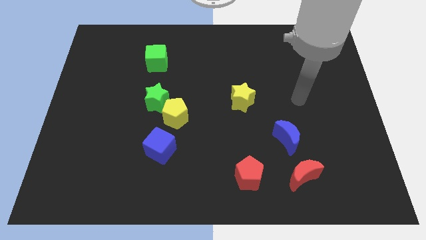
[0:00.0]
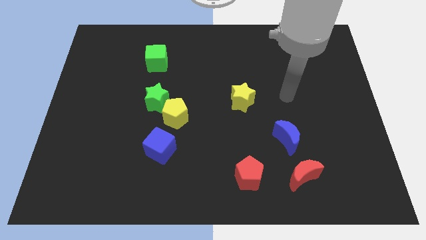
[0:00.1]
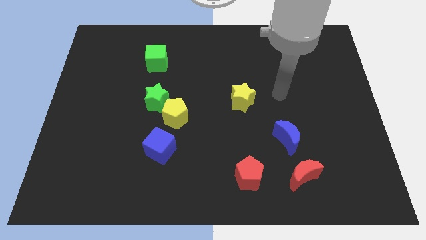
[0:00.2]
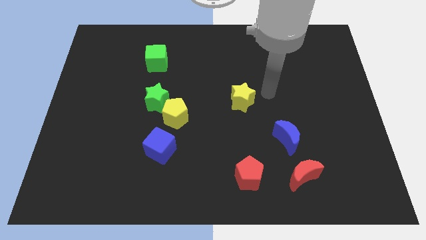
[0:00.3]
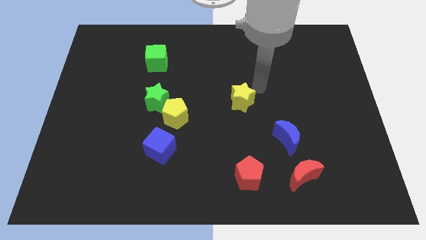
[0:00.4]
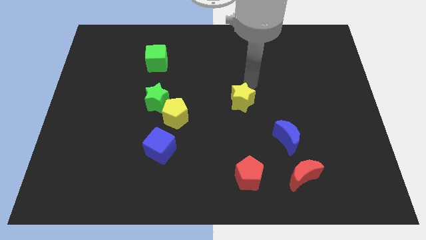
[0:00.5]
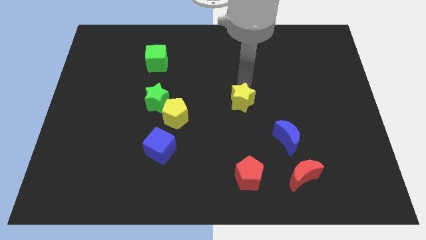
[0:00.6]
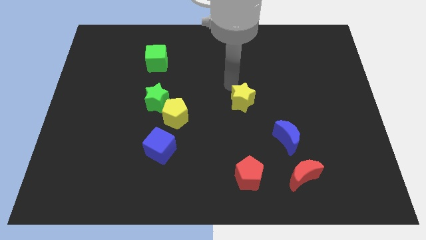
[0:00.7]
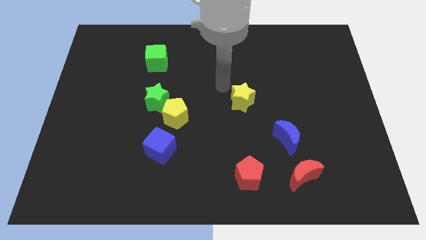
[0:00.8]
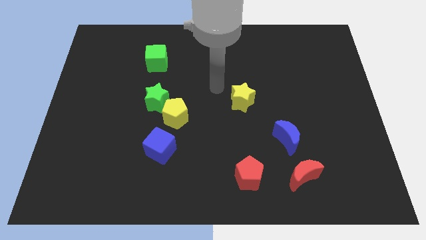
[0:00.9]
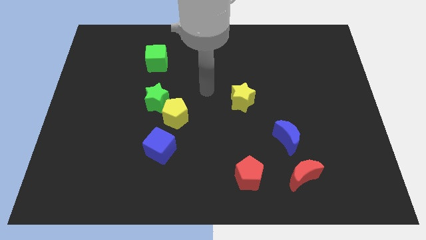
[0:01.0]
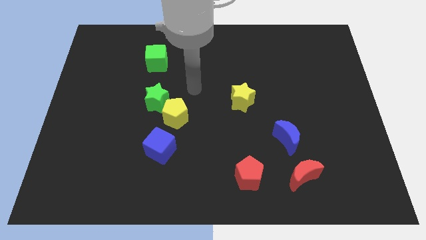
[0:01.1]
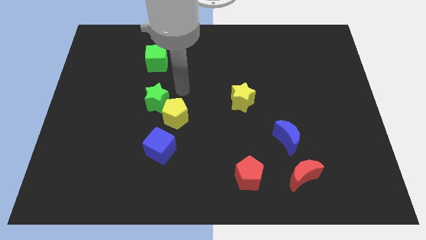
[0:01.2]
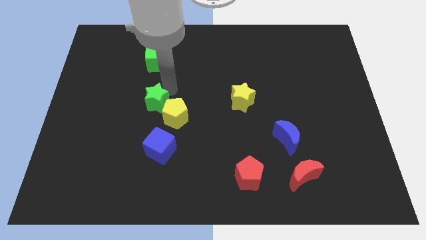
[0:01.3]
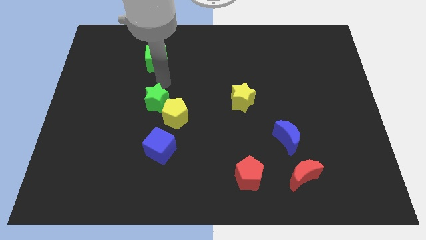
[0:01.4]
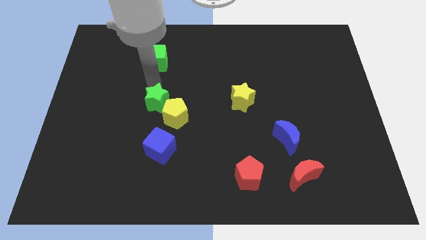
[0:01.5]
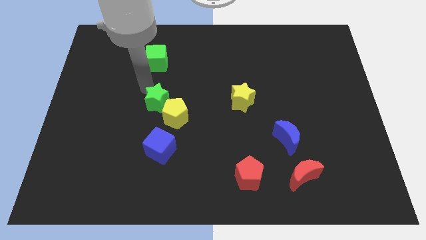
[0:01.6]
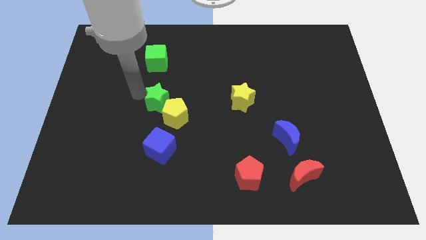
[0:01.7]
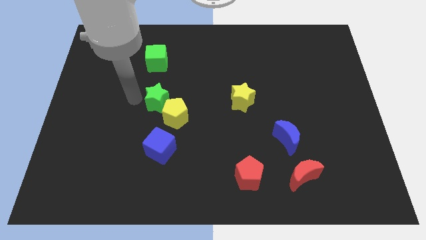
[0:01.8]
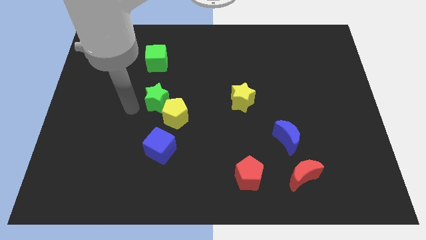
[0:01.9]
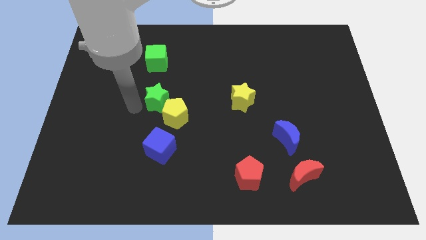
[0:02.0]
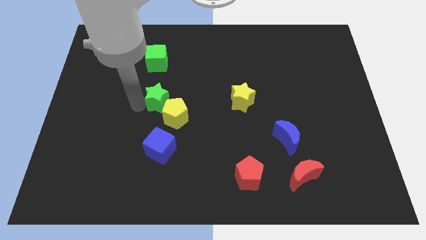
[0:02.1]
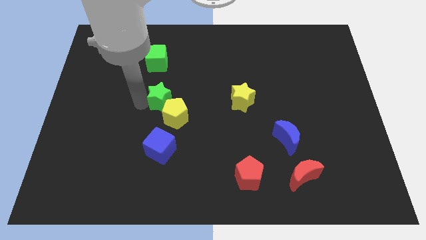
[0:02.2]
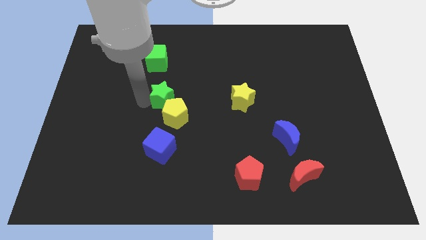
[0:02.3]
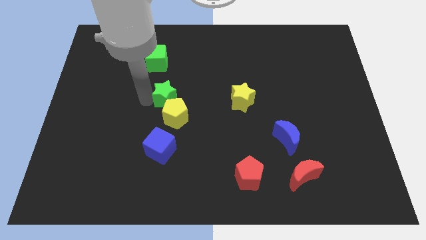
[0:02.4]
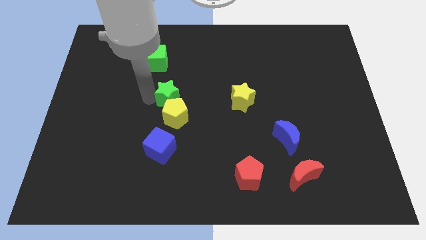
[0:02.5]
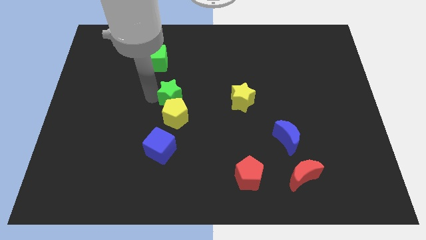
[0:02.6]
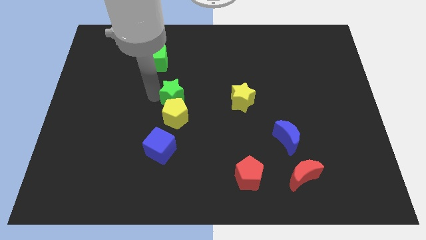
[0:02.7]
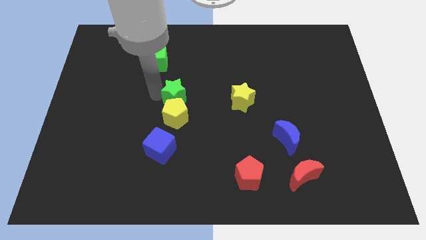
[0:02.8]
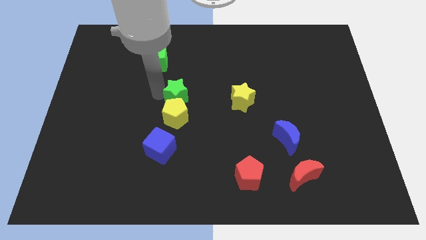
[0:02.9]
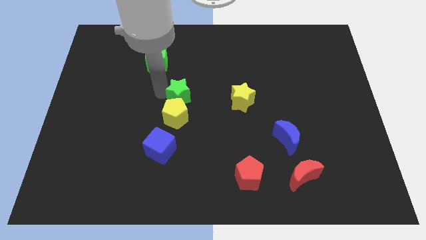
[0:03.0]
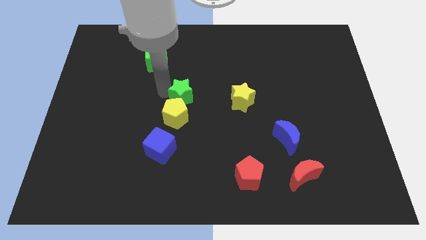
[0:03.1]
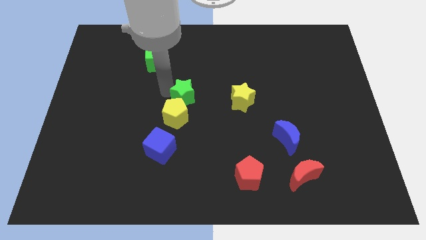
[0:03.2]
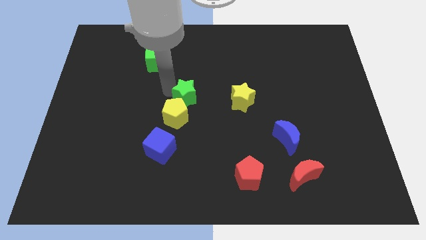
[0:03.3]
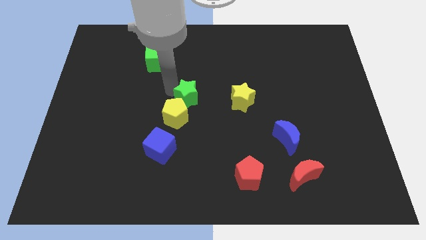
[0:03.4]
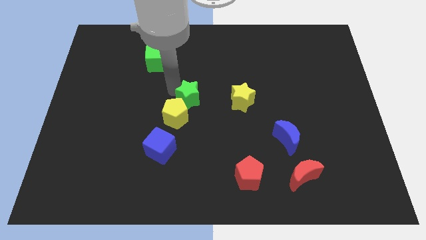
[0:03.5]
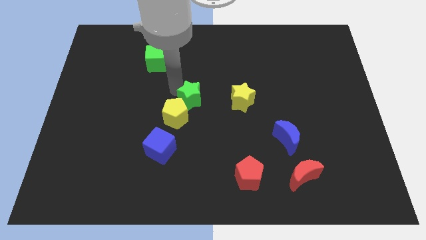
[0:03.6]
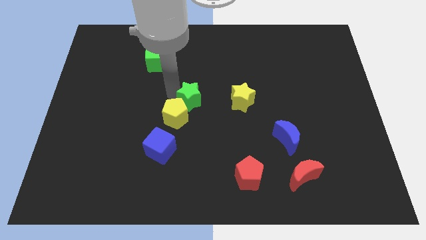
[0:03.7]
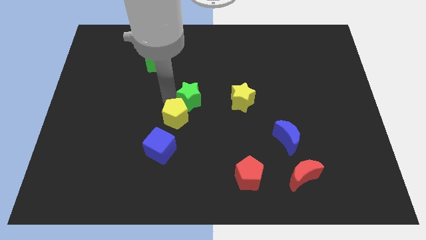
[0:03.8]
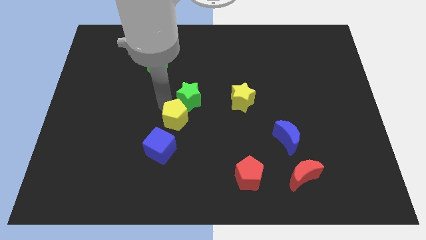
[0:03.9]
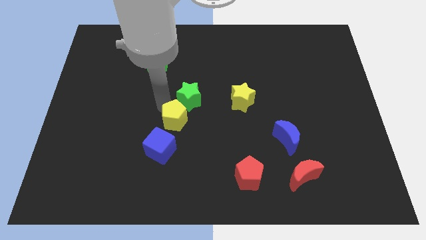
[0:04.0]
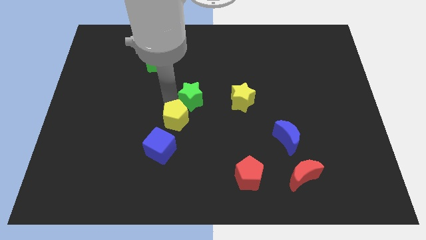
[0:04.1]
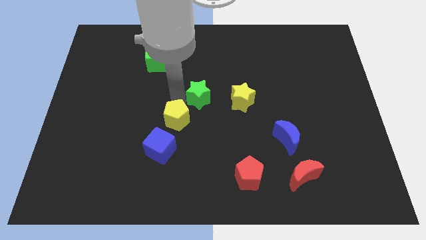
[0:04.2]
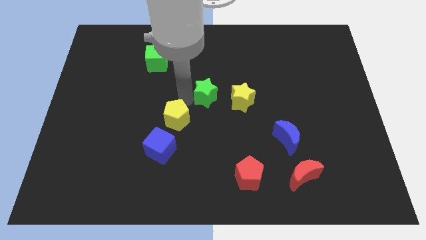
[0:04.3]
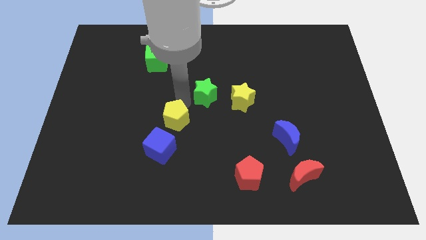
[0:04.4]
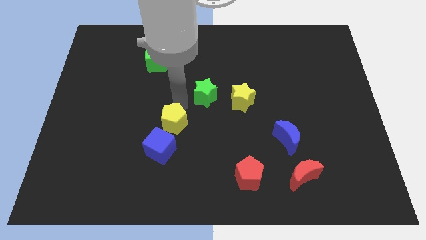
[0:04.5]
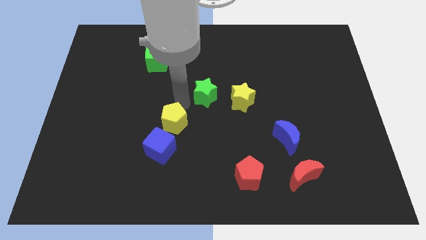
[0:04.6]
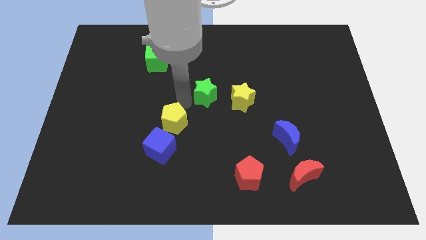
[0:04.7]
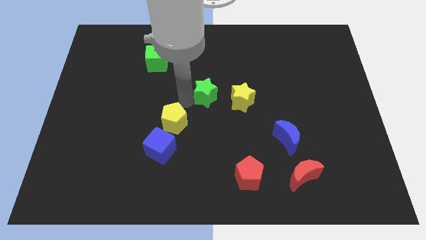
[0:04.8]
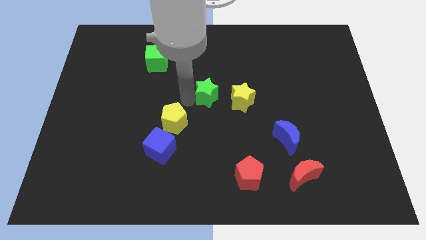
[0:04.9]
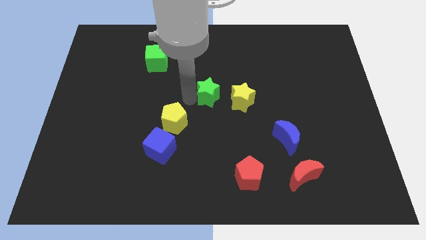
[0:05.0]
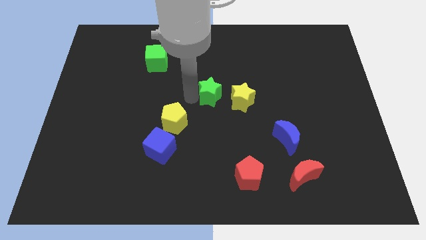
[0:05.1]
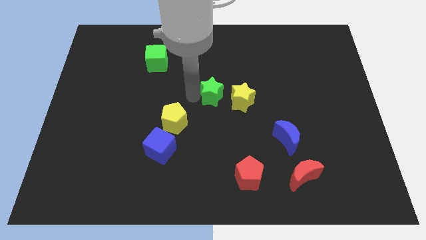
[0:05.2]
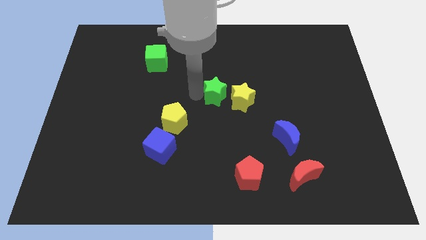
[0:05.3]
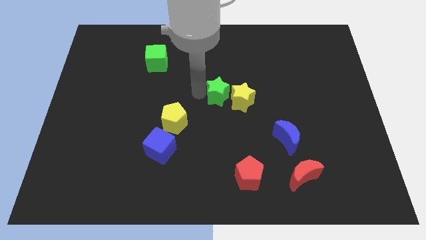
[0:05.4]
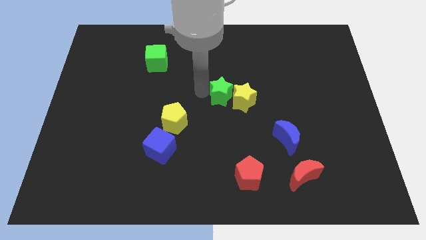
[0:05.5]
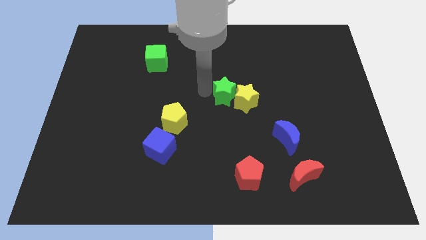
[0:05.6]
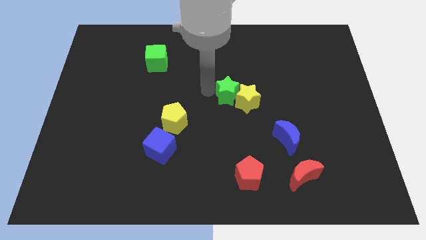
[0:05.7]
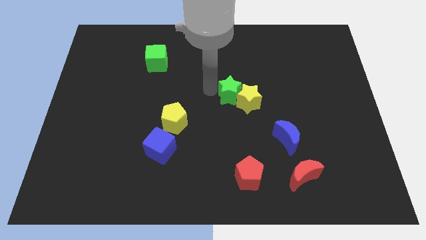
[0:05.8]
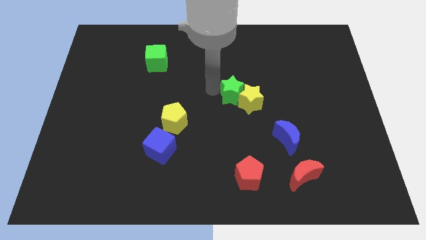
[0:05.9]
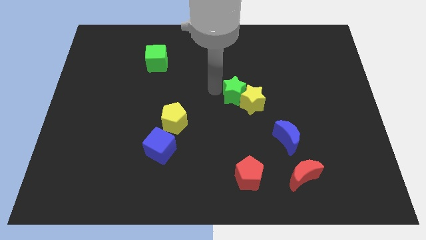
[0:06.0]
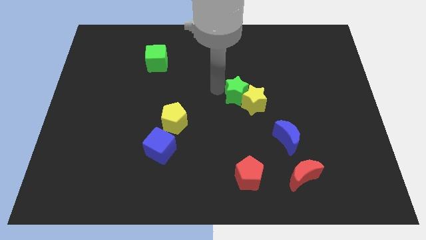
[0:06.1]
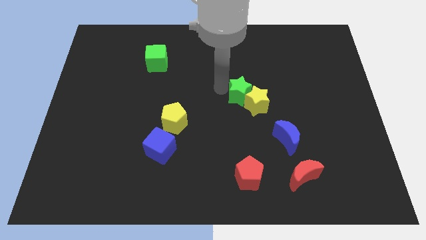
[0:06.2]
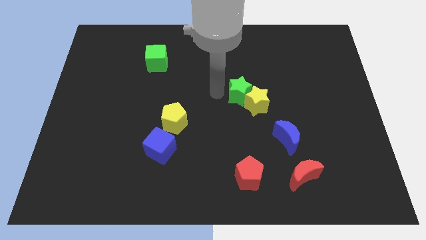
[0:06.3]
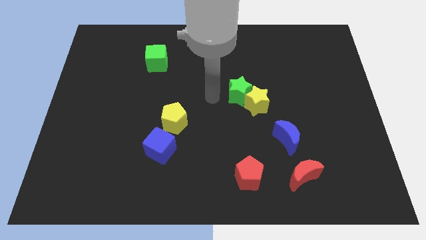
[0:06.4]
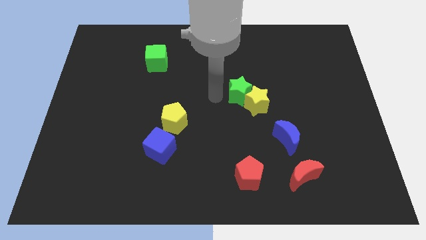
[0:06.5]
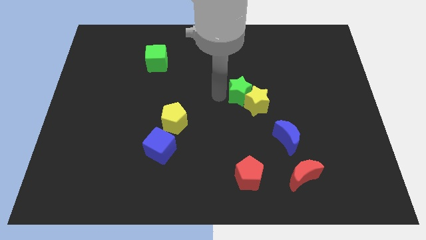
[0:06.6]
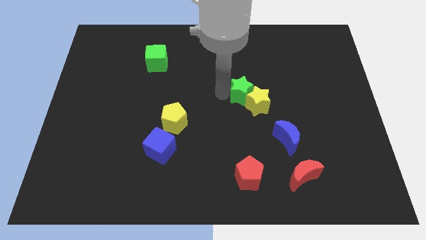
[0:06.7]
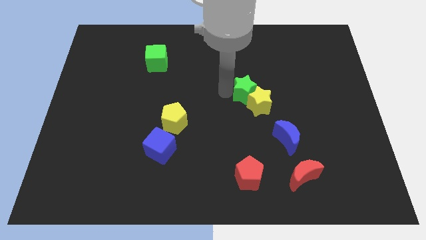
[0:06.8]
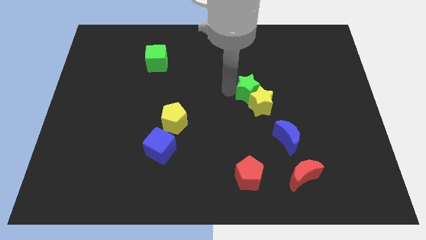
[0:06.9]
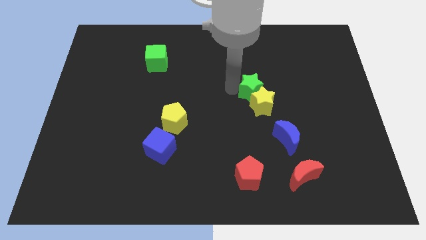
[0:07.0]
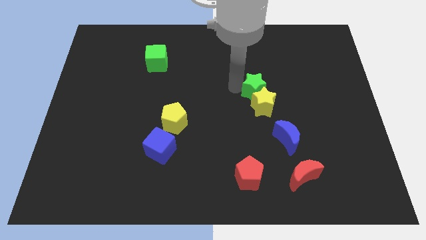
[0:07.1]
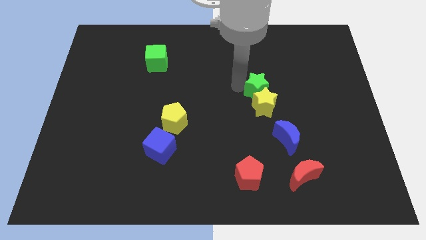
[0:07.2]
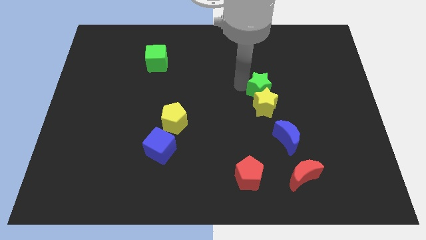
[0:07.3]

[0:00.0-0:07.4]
put the green star to the top right of the yellow star
